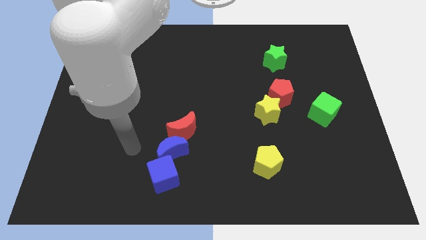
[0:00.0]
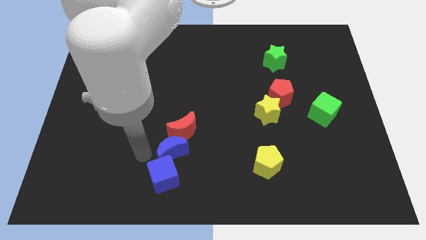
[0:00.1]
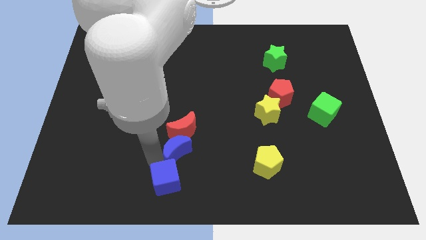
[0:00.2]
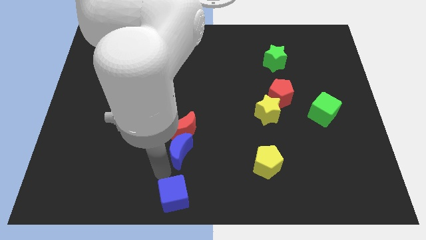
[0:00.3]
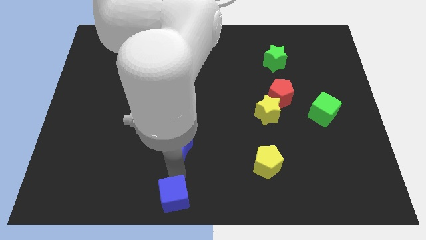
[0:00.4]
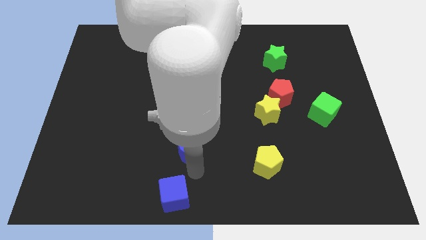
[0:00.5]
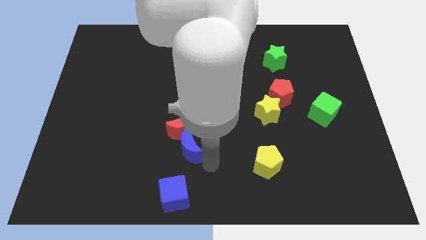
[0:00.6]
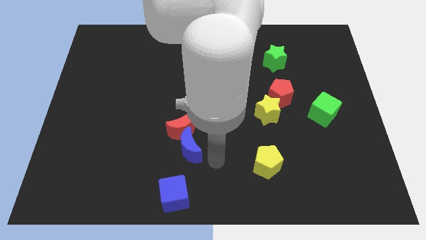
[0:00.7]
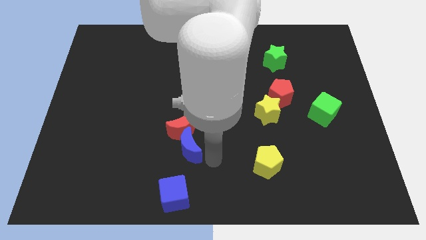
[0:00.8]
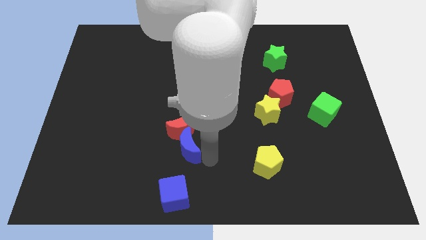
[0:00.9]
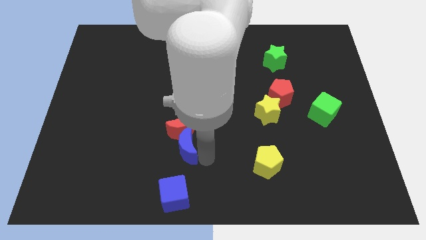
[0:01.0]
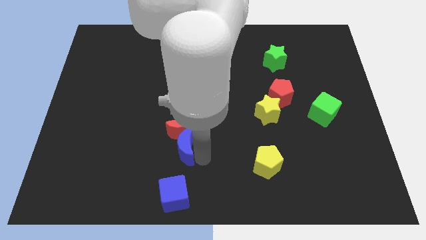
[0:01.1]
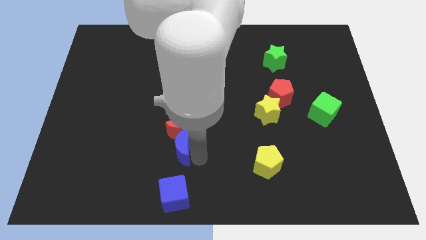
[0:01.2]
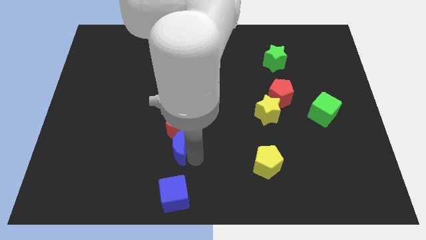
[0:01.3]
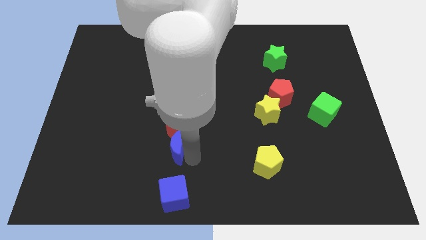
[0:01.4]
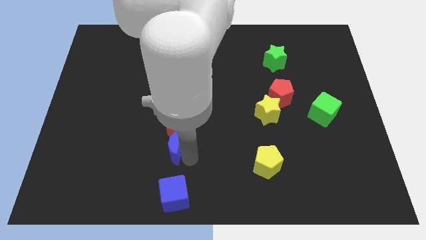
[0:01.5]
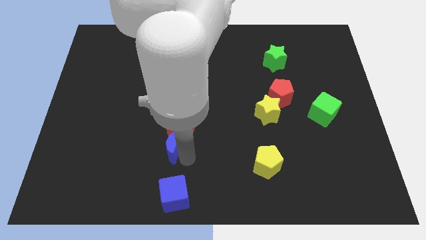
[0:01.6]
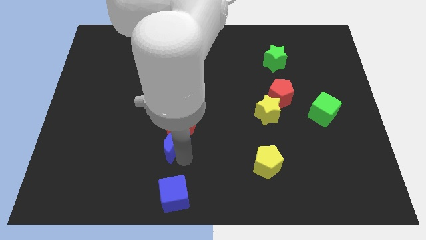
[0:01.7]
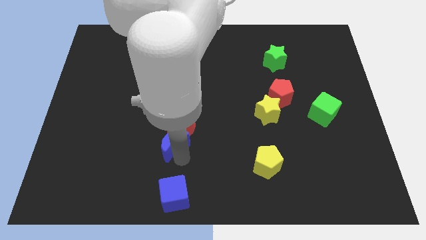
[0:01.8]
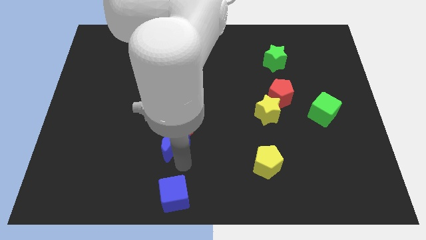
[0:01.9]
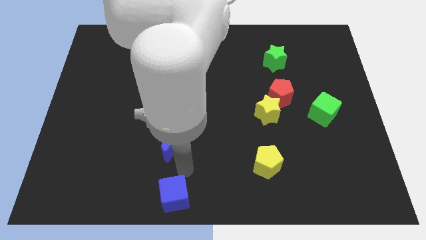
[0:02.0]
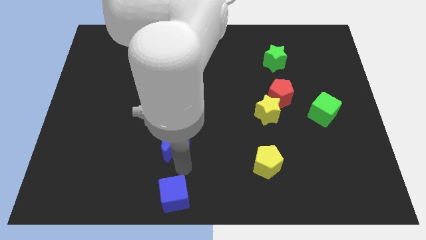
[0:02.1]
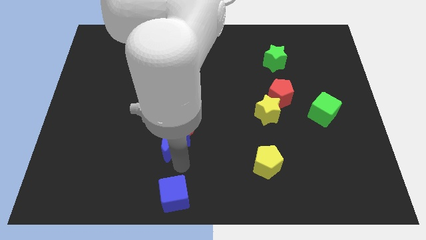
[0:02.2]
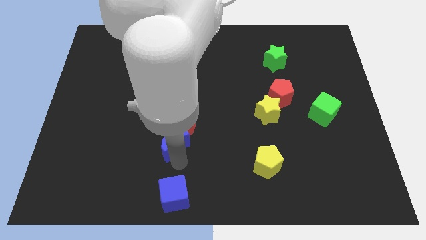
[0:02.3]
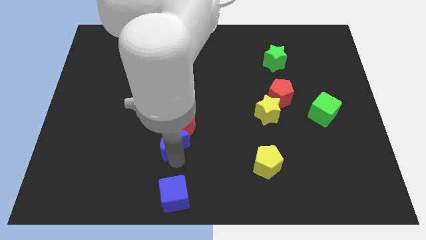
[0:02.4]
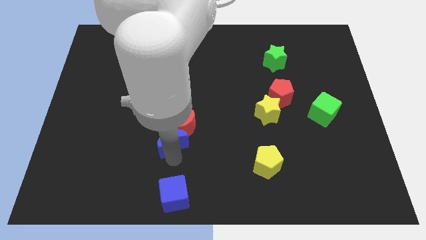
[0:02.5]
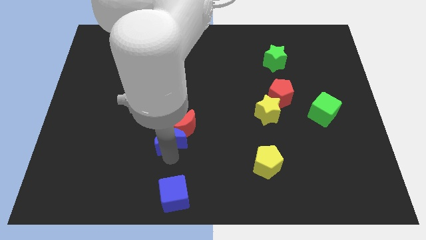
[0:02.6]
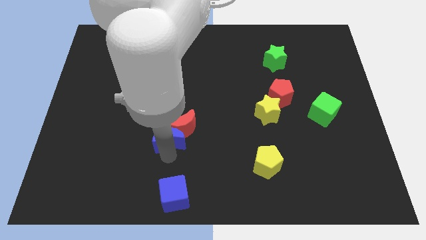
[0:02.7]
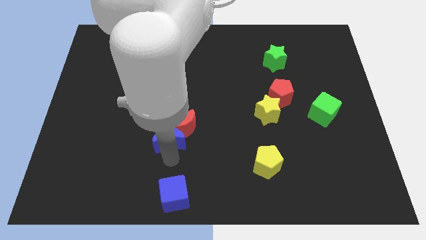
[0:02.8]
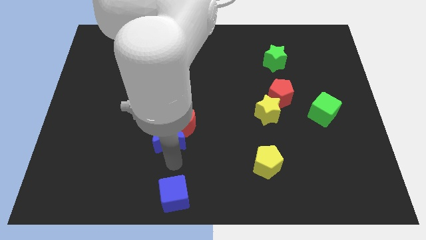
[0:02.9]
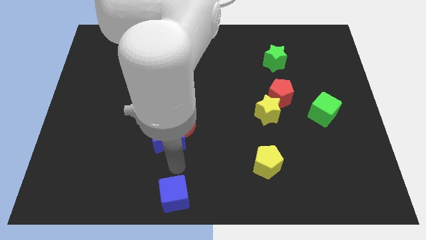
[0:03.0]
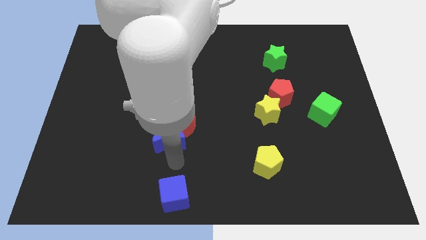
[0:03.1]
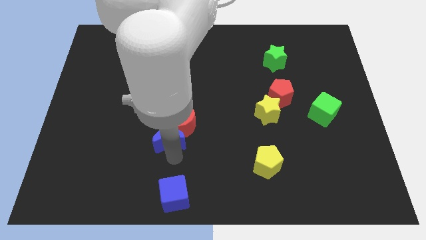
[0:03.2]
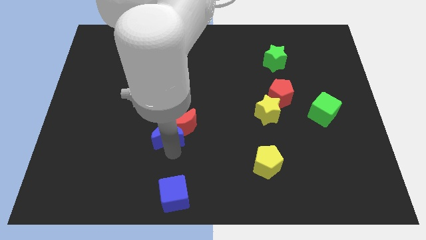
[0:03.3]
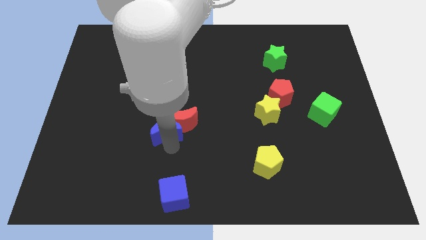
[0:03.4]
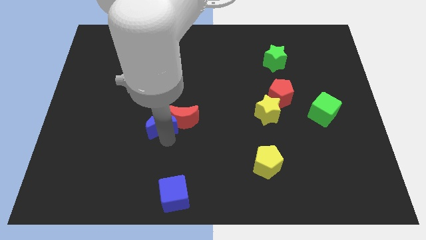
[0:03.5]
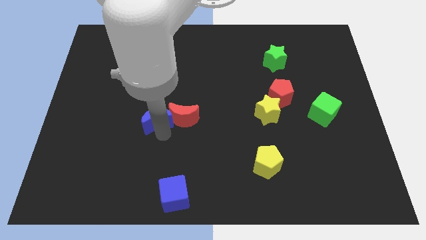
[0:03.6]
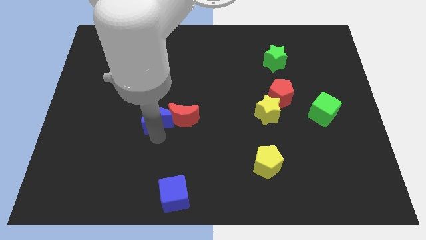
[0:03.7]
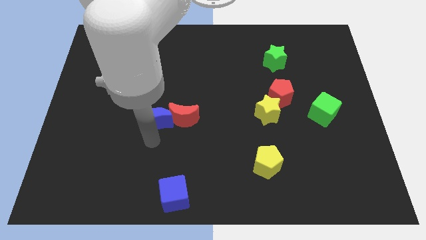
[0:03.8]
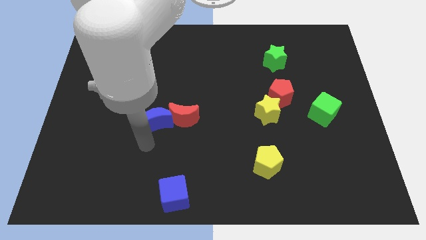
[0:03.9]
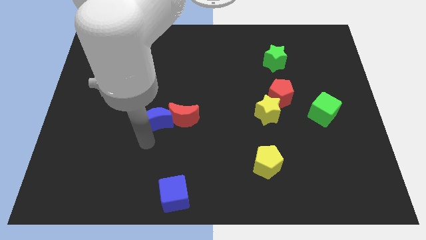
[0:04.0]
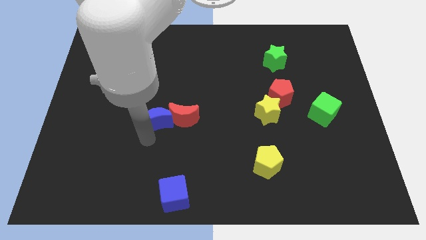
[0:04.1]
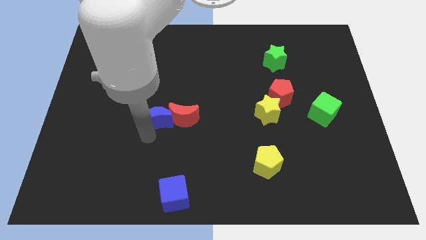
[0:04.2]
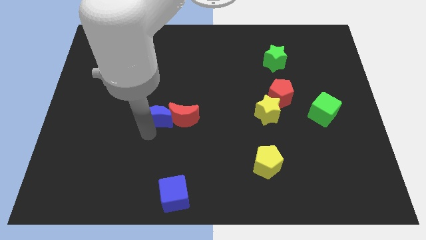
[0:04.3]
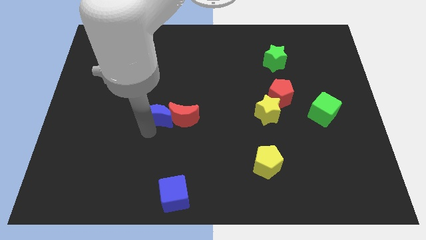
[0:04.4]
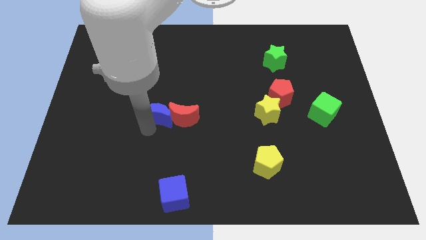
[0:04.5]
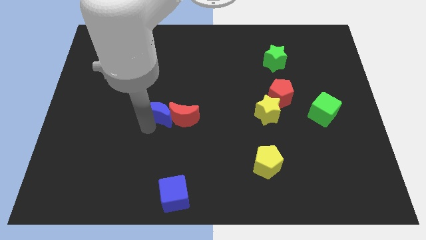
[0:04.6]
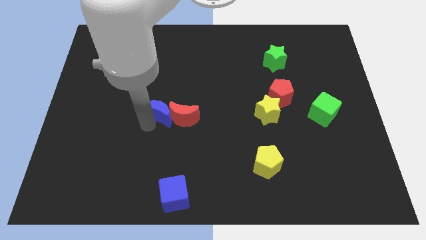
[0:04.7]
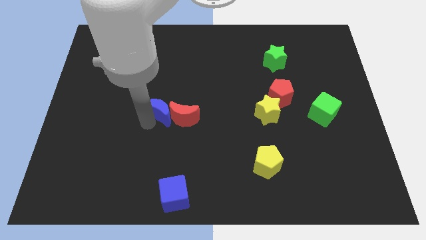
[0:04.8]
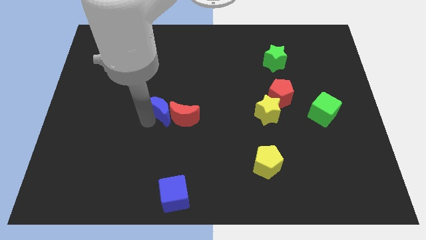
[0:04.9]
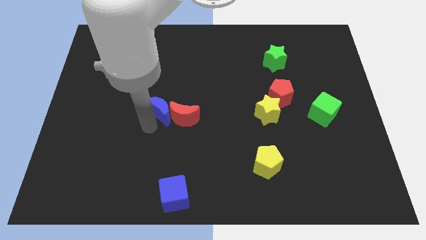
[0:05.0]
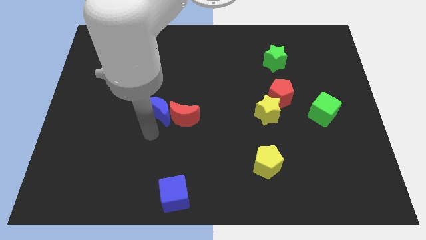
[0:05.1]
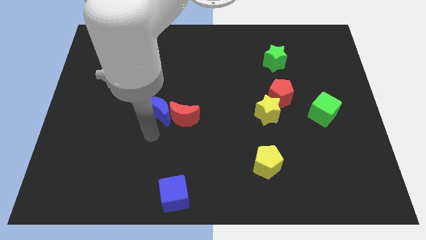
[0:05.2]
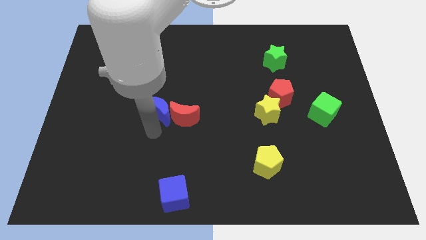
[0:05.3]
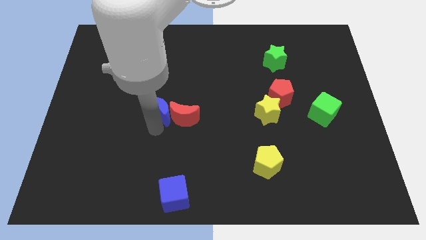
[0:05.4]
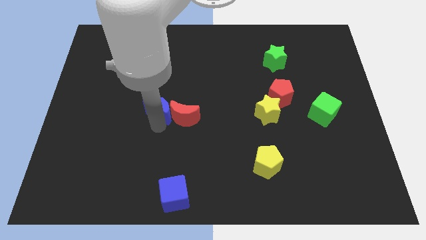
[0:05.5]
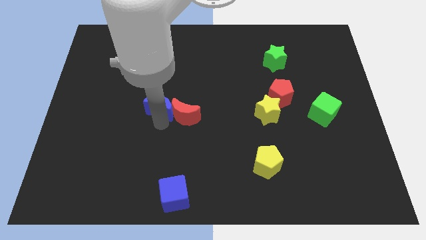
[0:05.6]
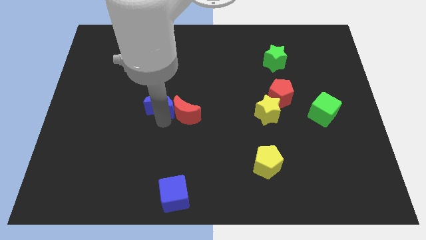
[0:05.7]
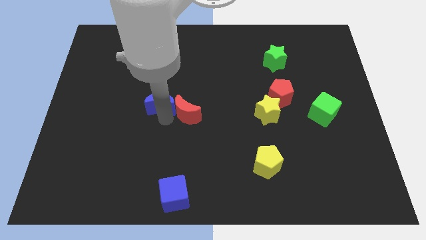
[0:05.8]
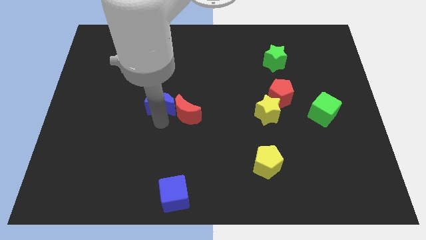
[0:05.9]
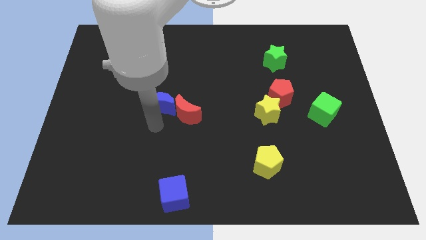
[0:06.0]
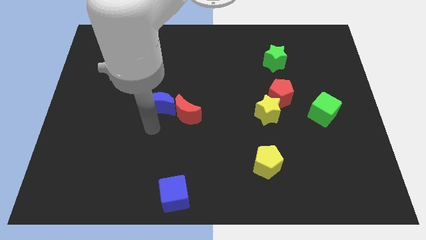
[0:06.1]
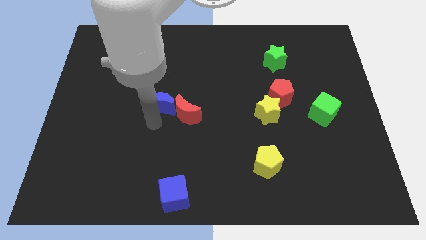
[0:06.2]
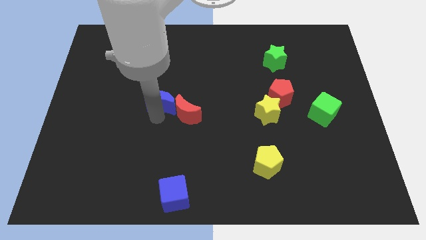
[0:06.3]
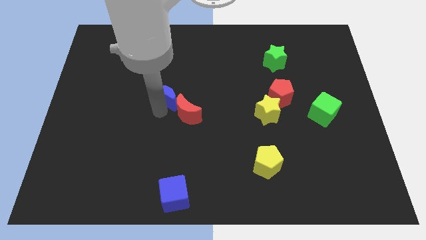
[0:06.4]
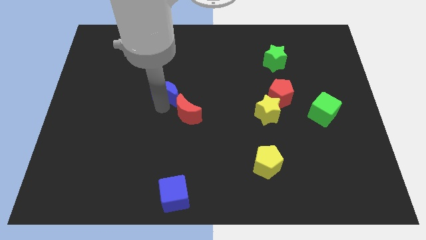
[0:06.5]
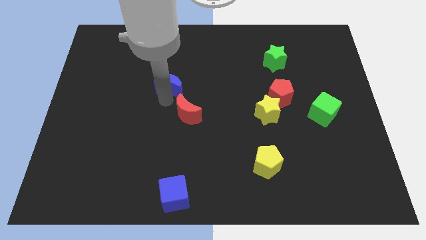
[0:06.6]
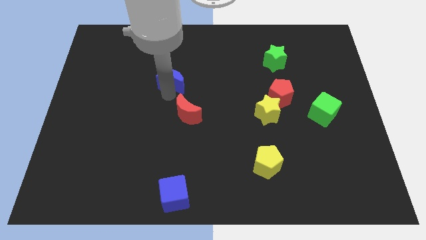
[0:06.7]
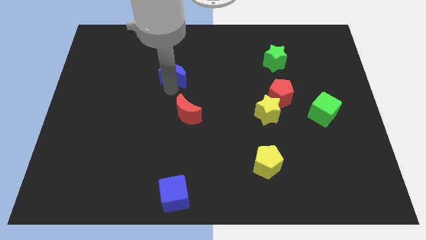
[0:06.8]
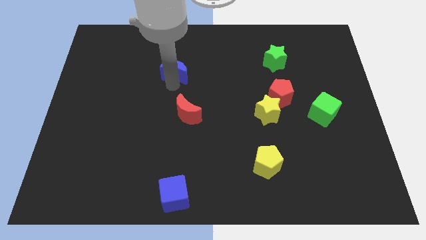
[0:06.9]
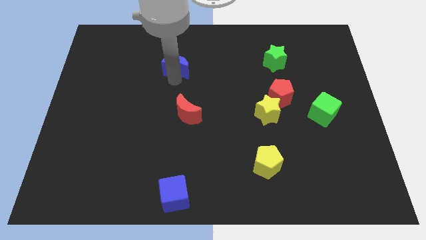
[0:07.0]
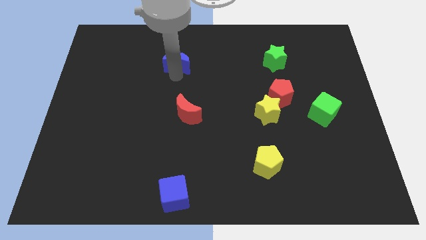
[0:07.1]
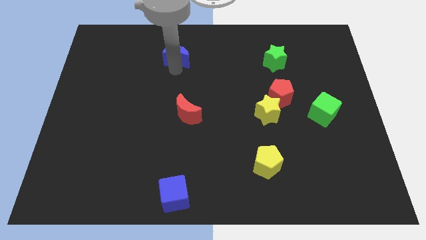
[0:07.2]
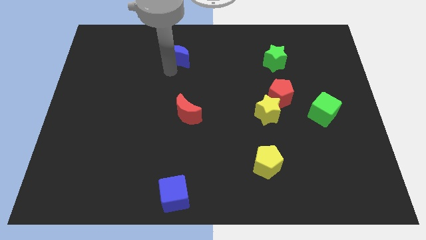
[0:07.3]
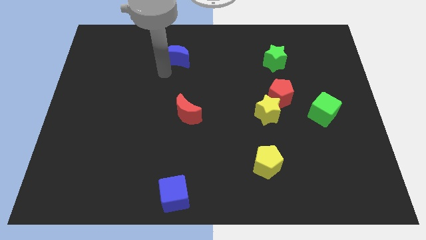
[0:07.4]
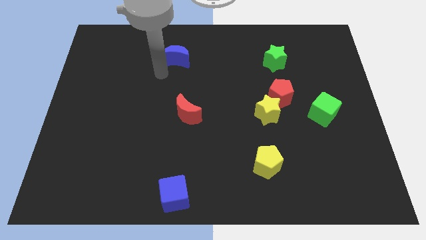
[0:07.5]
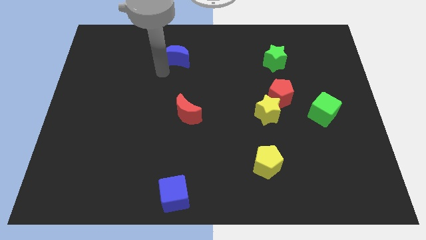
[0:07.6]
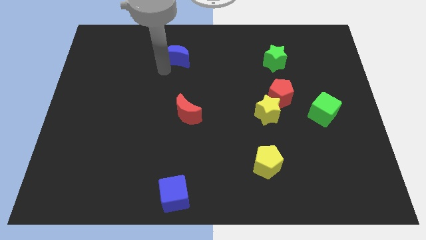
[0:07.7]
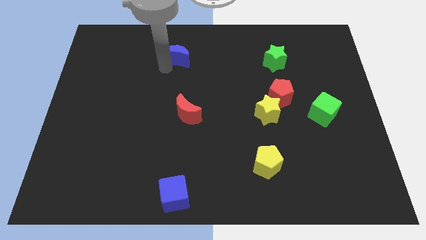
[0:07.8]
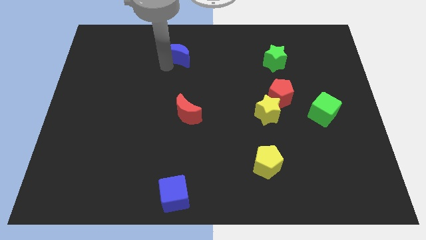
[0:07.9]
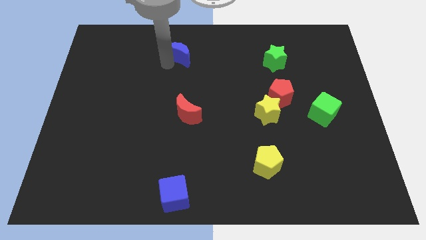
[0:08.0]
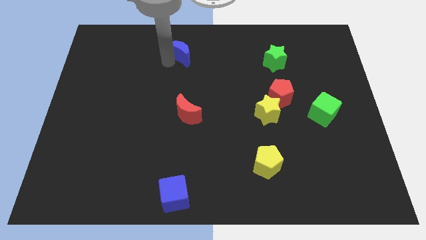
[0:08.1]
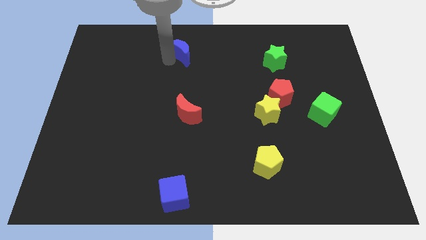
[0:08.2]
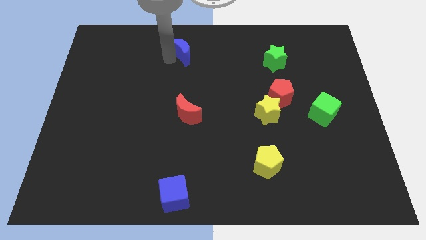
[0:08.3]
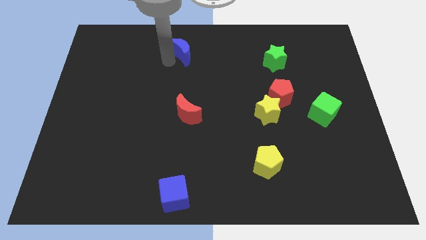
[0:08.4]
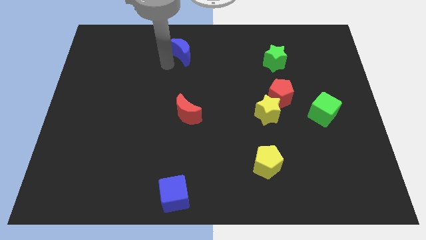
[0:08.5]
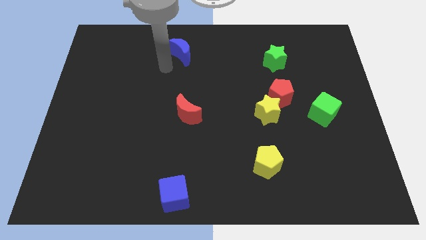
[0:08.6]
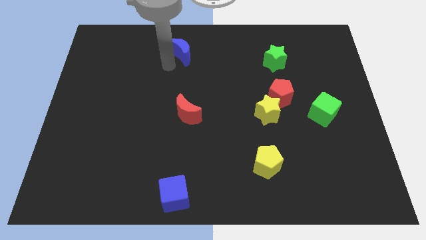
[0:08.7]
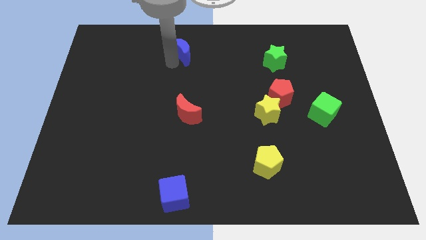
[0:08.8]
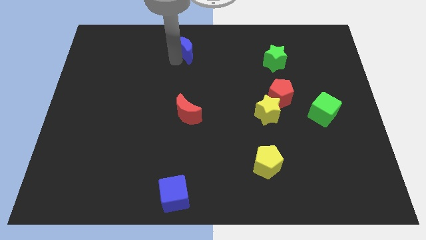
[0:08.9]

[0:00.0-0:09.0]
put the blue moon to the top side
